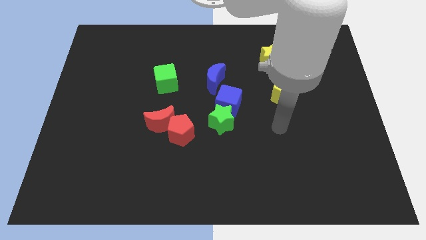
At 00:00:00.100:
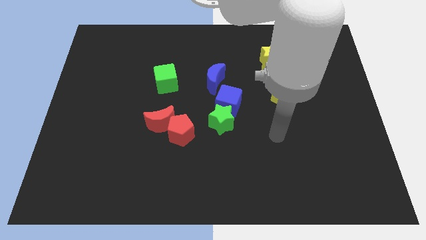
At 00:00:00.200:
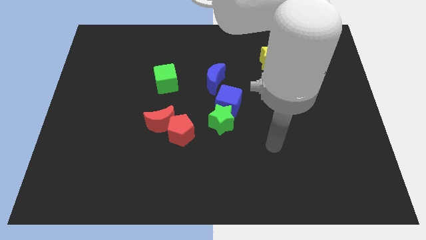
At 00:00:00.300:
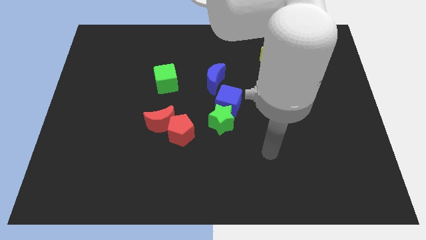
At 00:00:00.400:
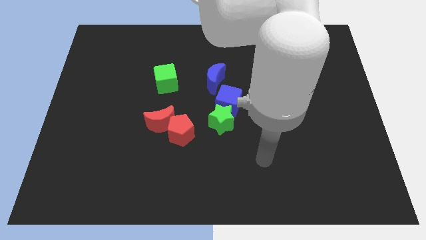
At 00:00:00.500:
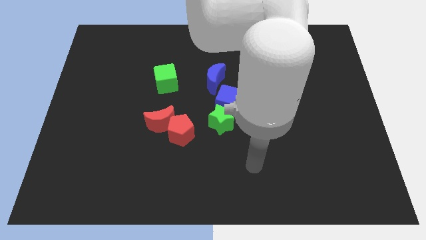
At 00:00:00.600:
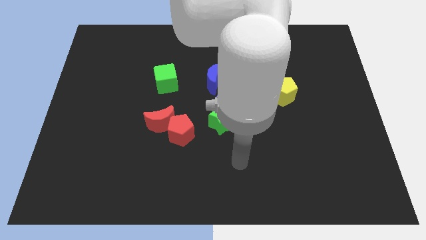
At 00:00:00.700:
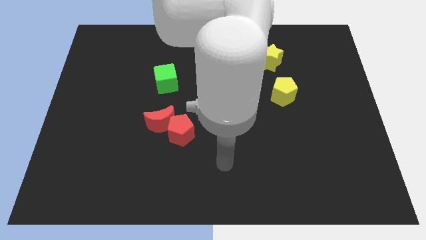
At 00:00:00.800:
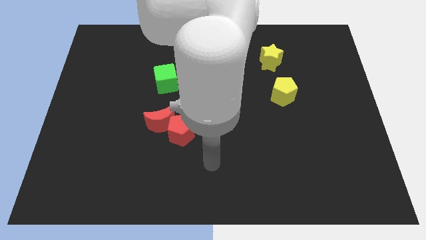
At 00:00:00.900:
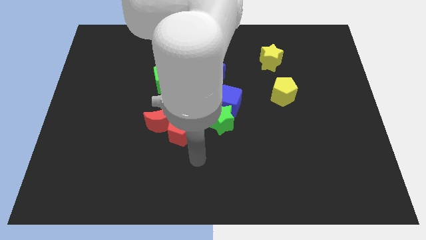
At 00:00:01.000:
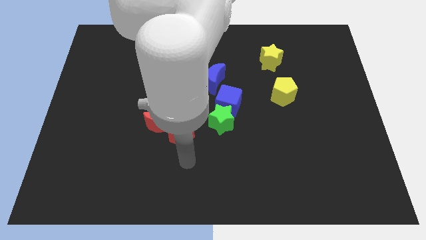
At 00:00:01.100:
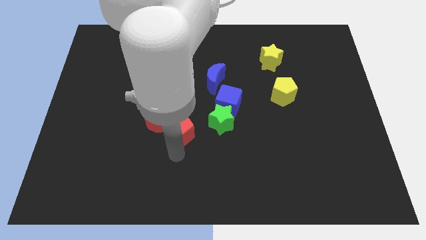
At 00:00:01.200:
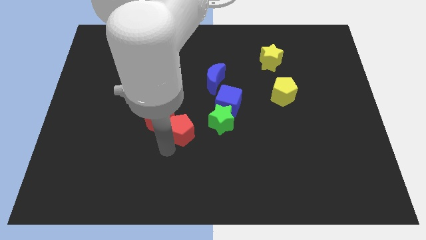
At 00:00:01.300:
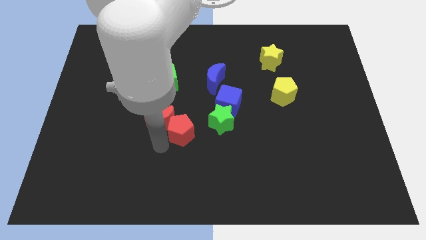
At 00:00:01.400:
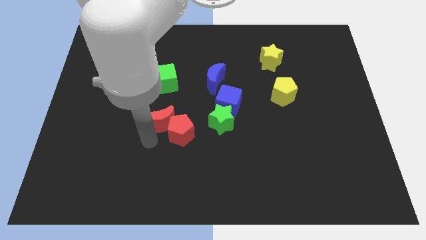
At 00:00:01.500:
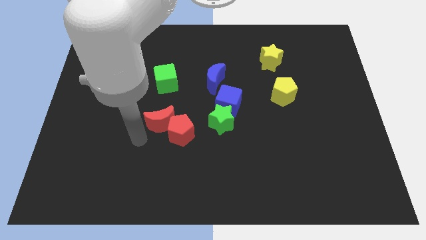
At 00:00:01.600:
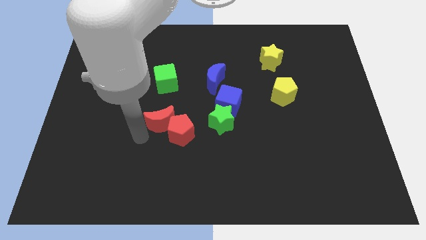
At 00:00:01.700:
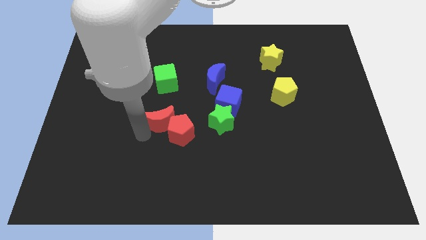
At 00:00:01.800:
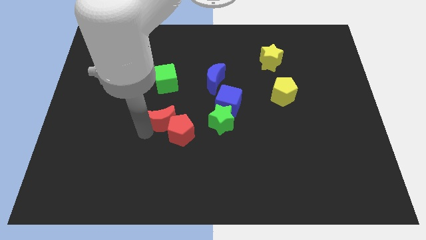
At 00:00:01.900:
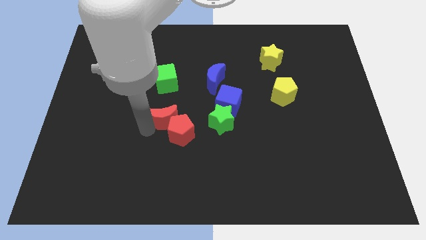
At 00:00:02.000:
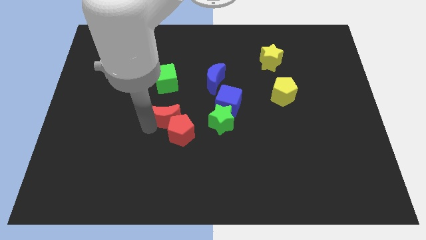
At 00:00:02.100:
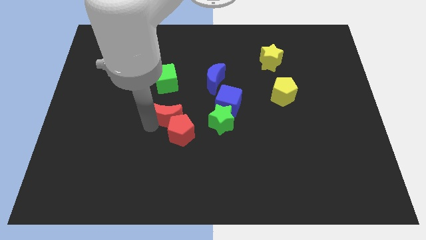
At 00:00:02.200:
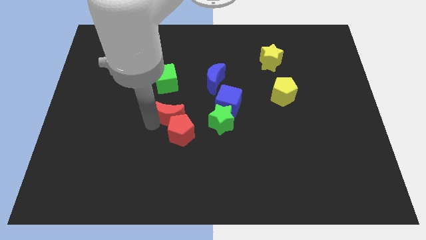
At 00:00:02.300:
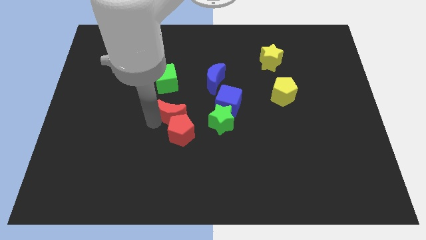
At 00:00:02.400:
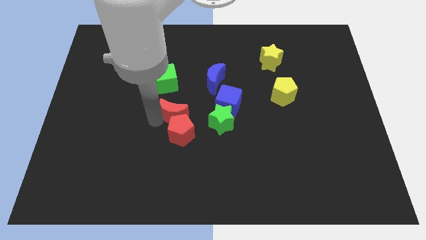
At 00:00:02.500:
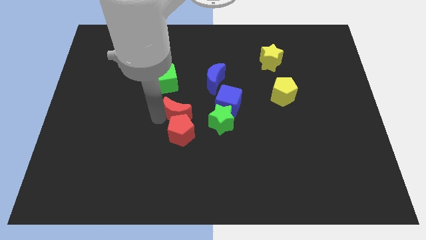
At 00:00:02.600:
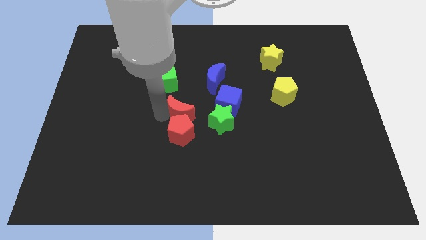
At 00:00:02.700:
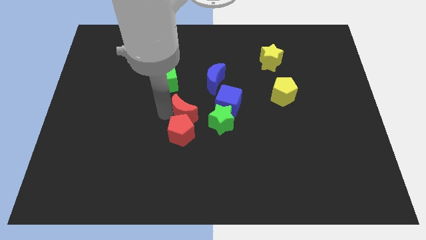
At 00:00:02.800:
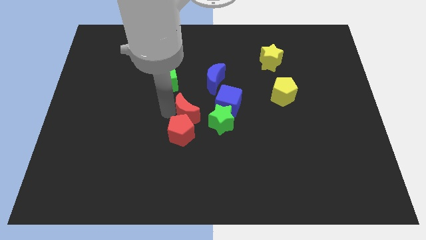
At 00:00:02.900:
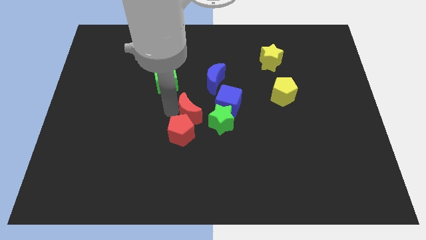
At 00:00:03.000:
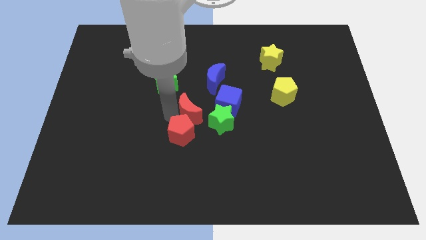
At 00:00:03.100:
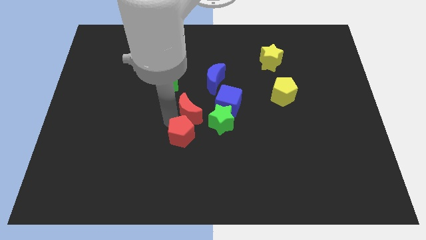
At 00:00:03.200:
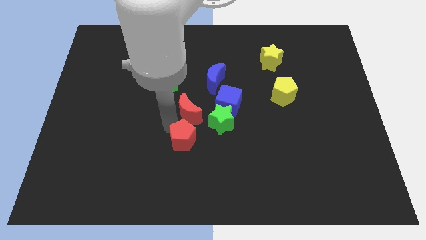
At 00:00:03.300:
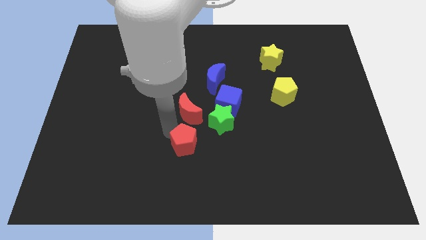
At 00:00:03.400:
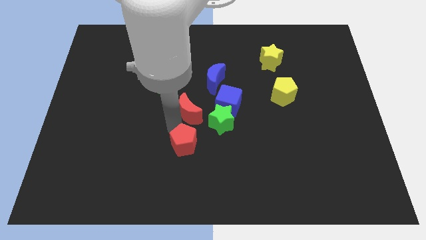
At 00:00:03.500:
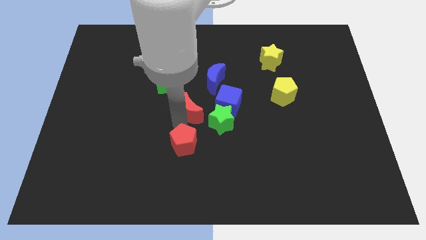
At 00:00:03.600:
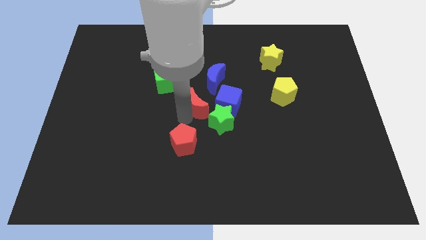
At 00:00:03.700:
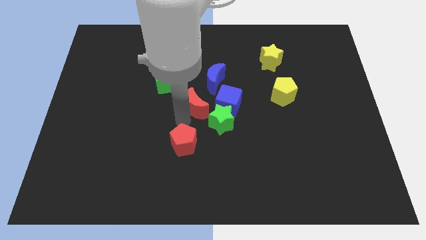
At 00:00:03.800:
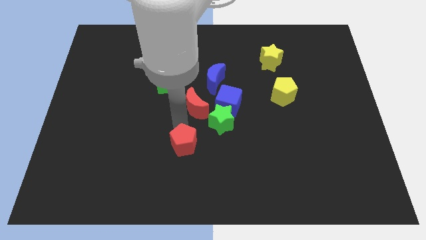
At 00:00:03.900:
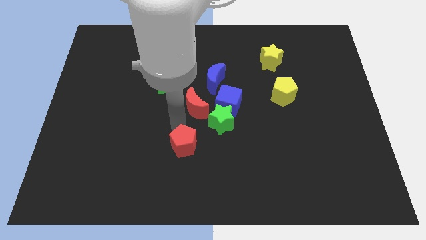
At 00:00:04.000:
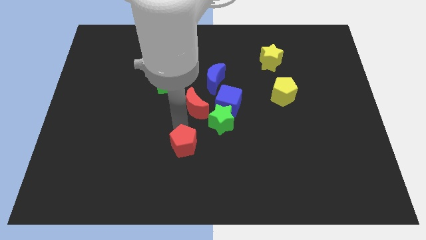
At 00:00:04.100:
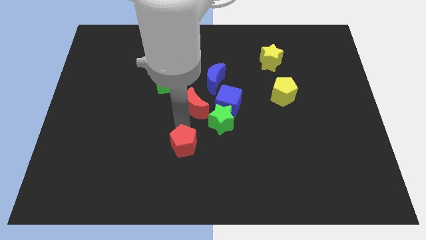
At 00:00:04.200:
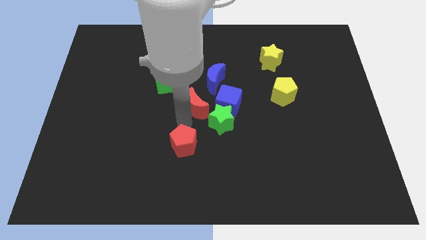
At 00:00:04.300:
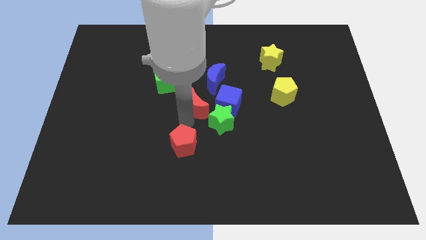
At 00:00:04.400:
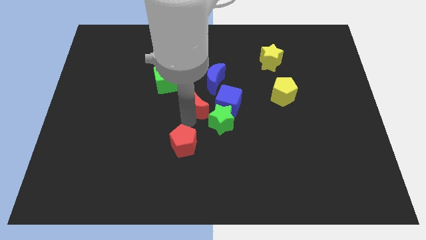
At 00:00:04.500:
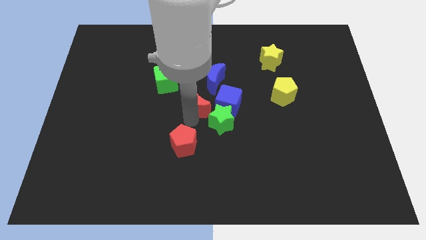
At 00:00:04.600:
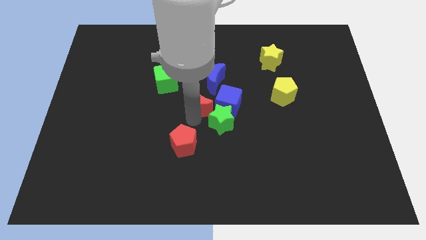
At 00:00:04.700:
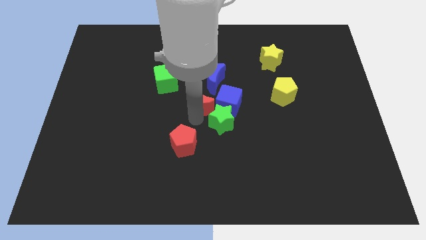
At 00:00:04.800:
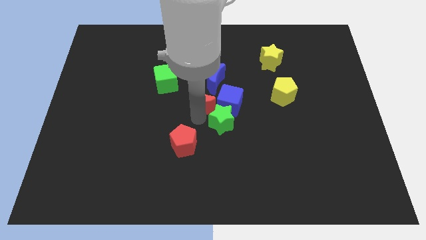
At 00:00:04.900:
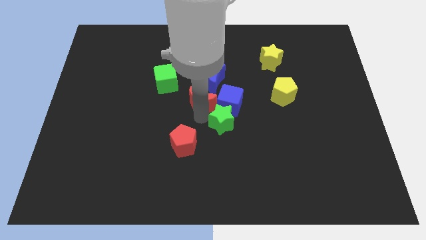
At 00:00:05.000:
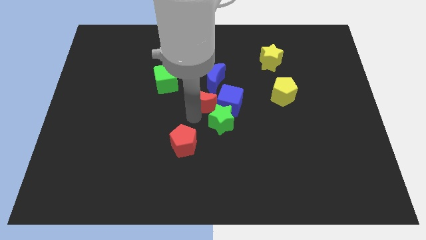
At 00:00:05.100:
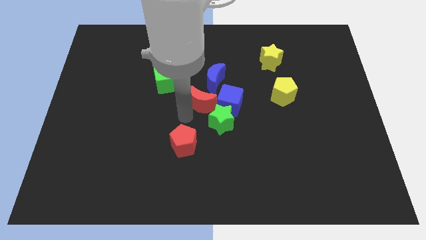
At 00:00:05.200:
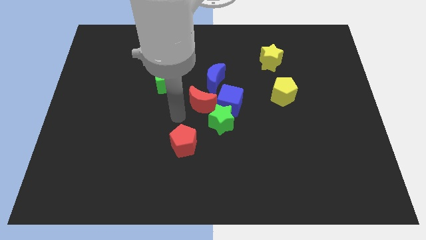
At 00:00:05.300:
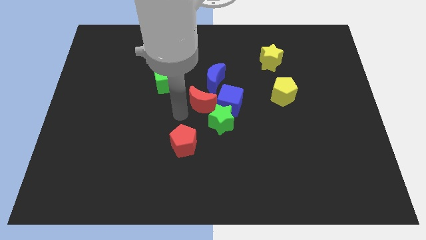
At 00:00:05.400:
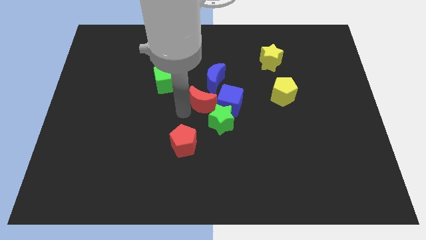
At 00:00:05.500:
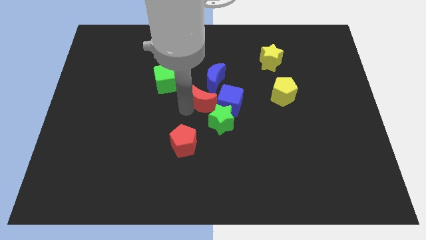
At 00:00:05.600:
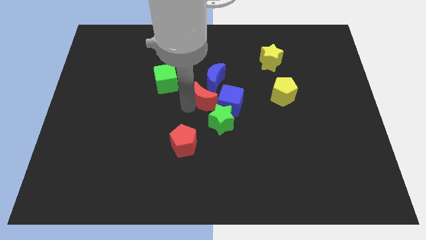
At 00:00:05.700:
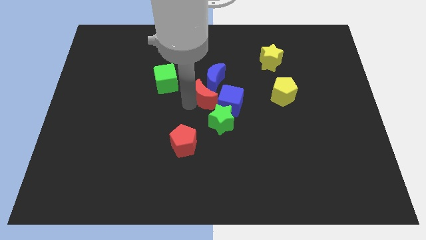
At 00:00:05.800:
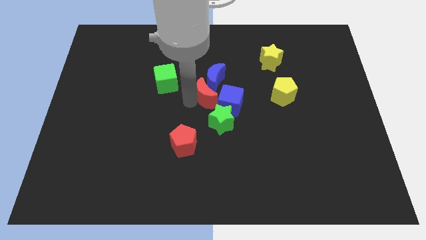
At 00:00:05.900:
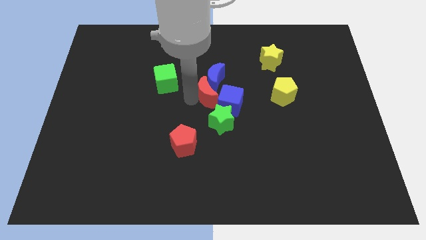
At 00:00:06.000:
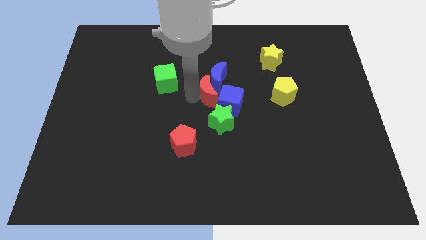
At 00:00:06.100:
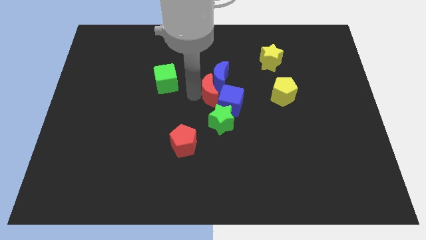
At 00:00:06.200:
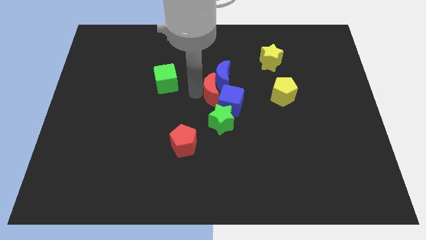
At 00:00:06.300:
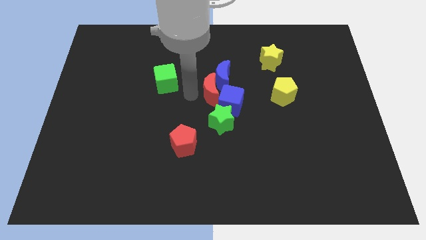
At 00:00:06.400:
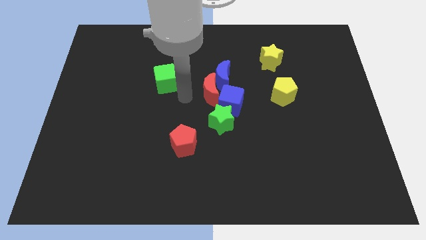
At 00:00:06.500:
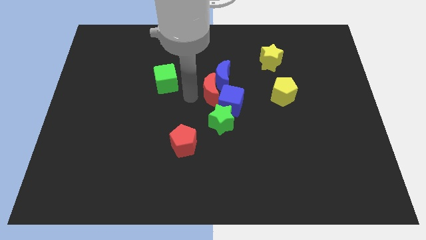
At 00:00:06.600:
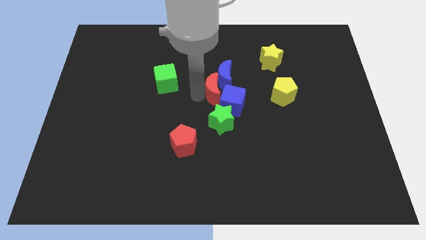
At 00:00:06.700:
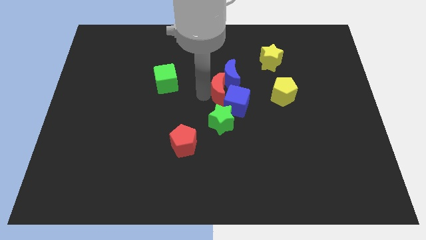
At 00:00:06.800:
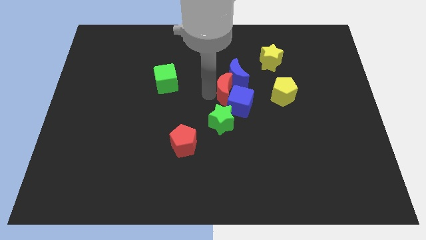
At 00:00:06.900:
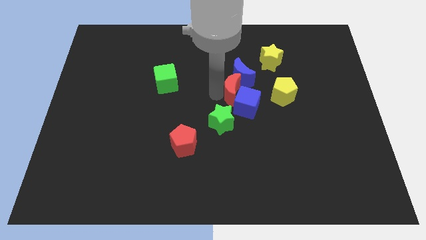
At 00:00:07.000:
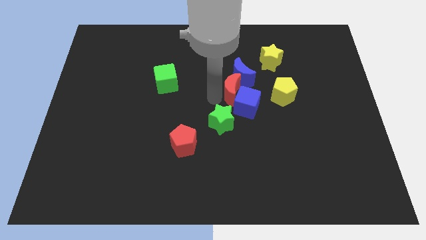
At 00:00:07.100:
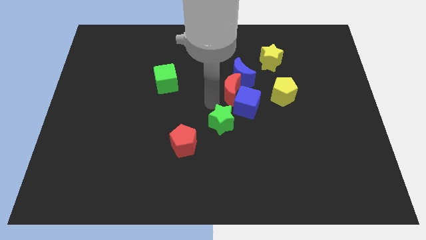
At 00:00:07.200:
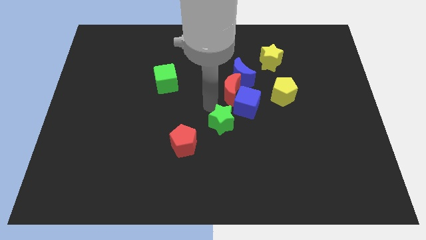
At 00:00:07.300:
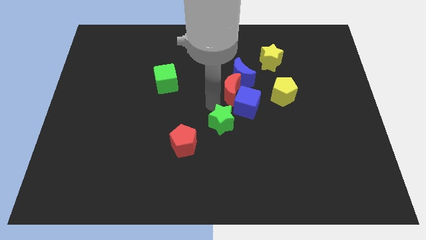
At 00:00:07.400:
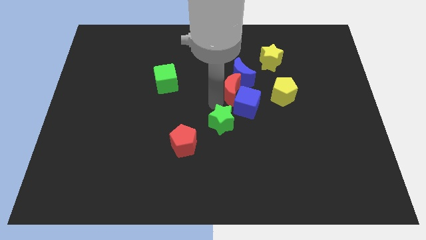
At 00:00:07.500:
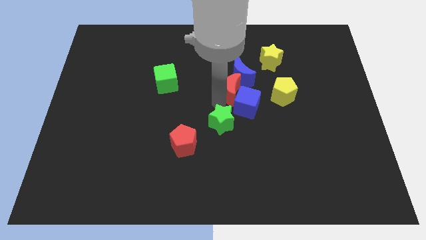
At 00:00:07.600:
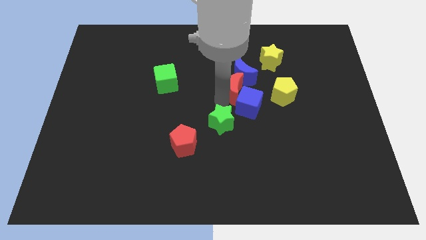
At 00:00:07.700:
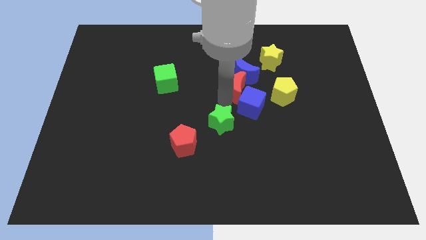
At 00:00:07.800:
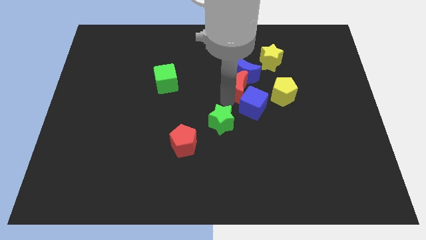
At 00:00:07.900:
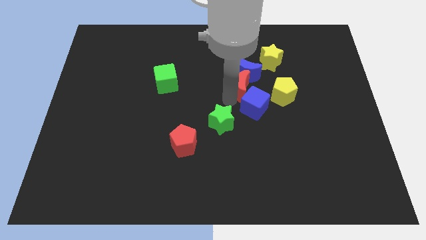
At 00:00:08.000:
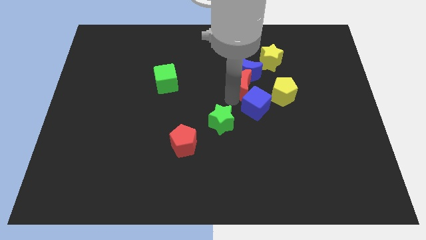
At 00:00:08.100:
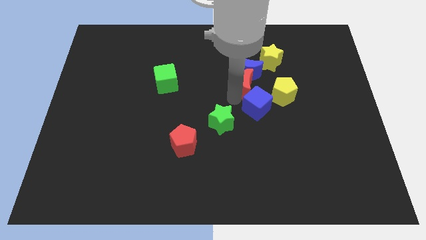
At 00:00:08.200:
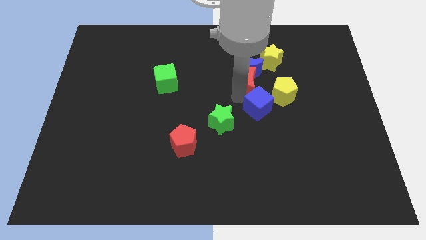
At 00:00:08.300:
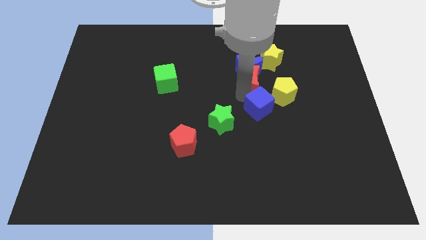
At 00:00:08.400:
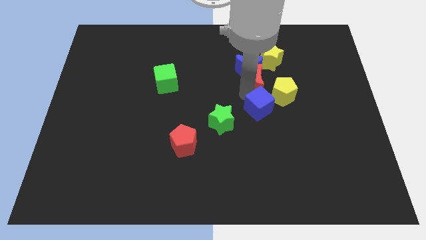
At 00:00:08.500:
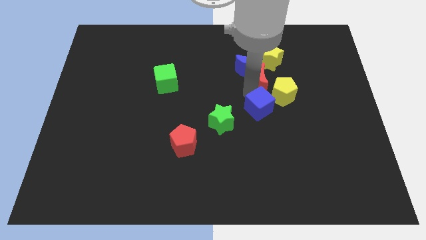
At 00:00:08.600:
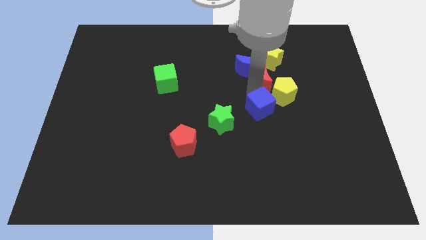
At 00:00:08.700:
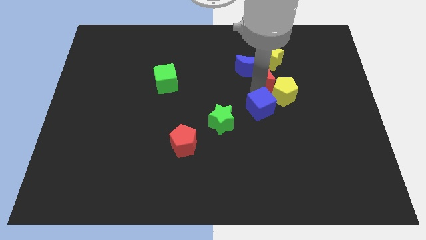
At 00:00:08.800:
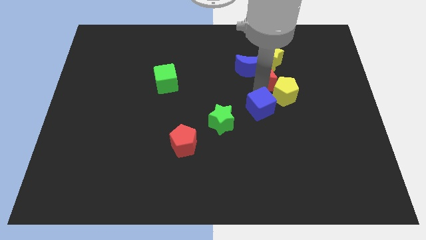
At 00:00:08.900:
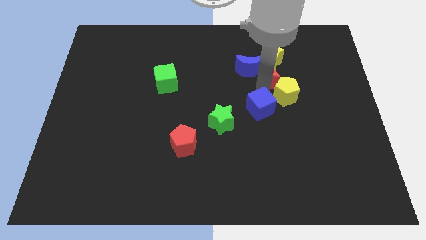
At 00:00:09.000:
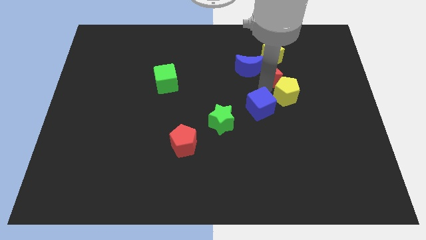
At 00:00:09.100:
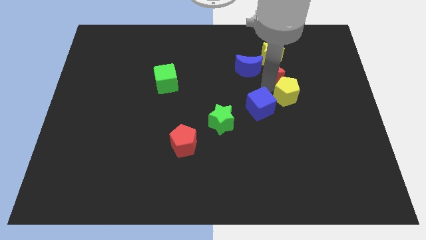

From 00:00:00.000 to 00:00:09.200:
move the red moon close to the yellow star
